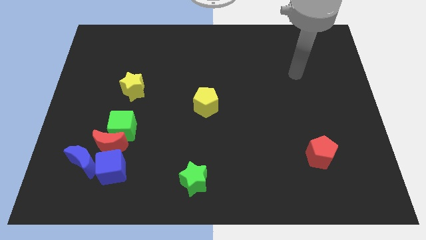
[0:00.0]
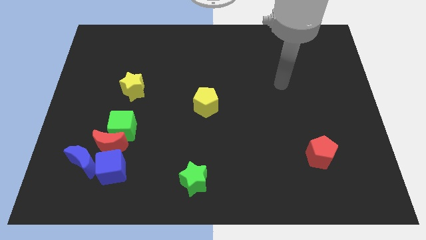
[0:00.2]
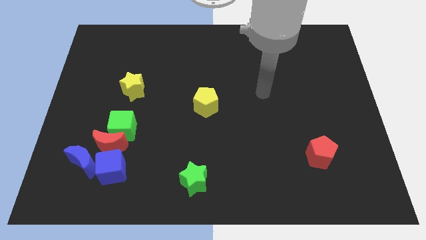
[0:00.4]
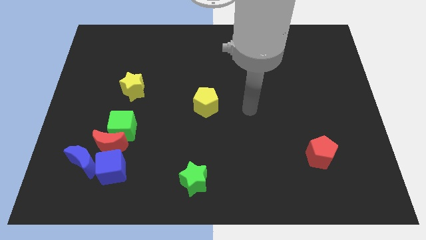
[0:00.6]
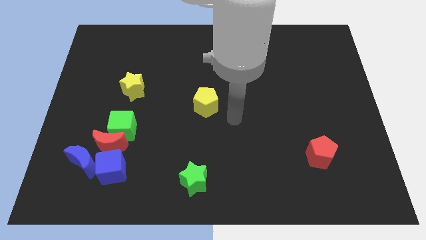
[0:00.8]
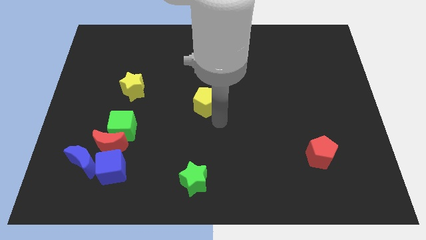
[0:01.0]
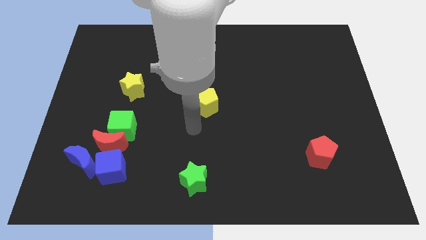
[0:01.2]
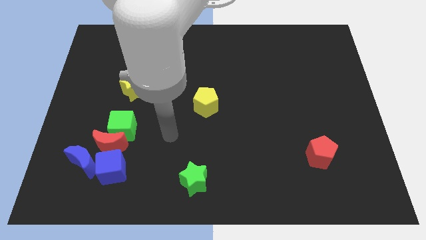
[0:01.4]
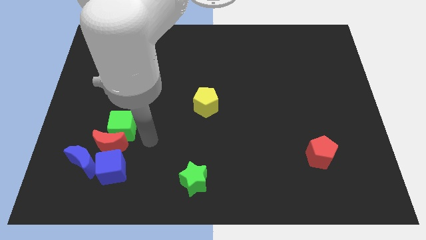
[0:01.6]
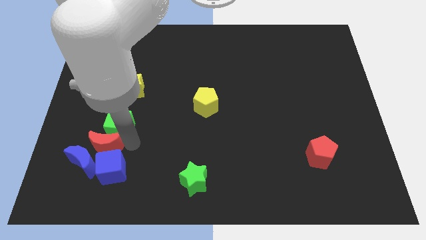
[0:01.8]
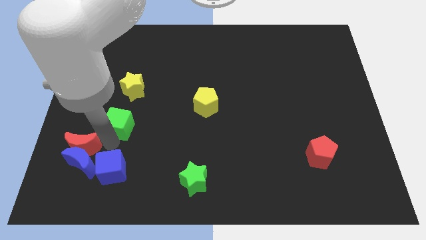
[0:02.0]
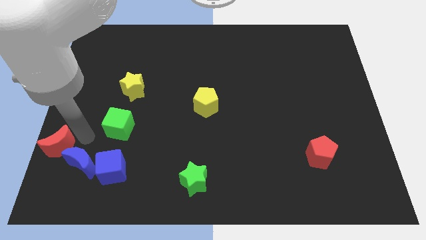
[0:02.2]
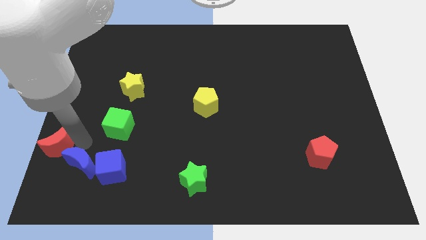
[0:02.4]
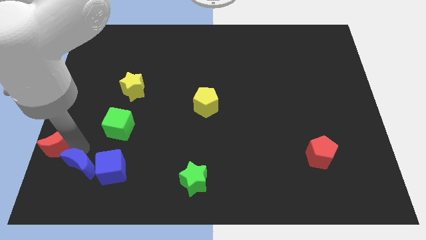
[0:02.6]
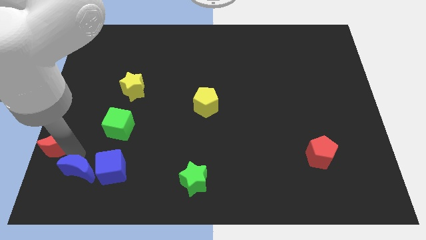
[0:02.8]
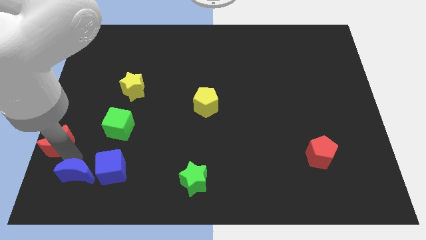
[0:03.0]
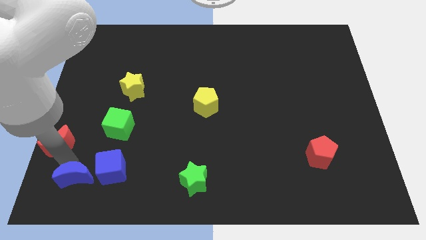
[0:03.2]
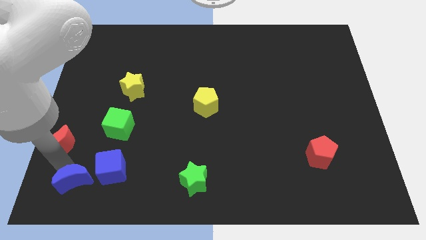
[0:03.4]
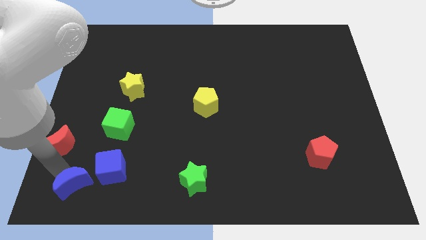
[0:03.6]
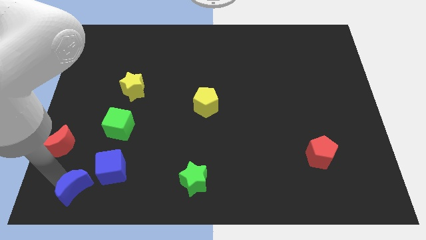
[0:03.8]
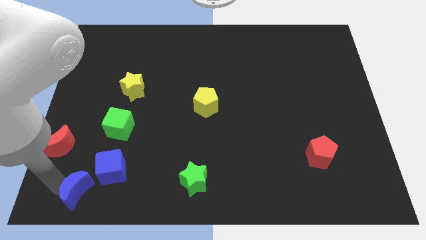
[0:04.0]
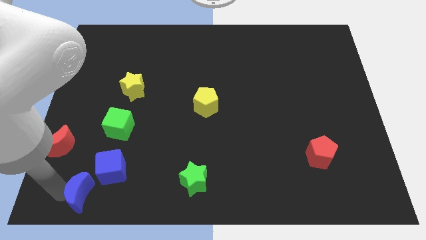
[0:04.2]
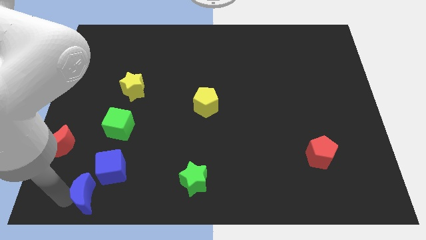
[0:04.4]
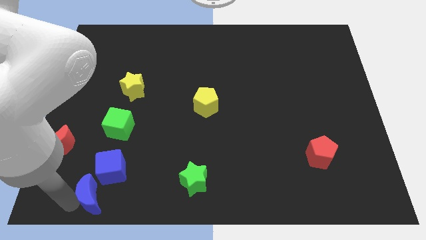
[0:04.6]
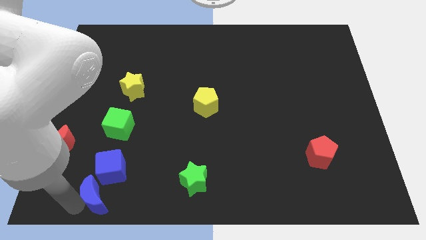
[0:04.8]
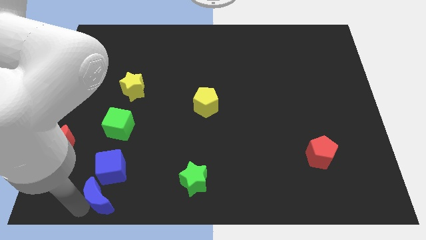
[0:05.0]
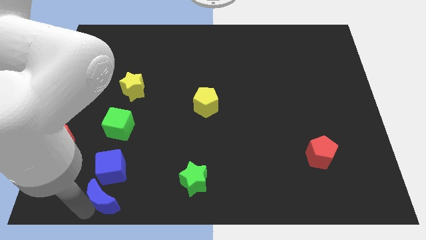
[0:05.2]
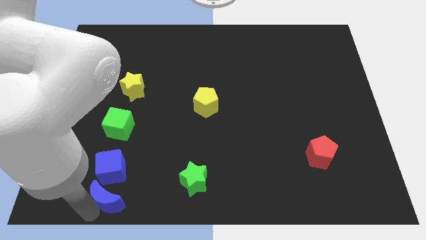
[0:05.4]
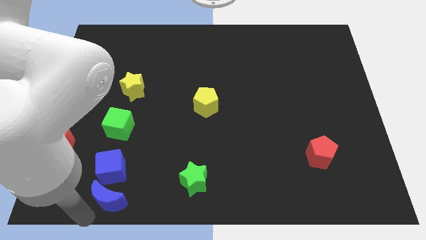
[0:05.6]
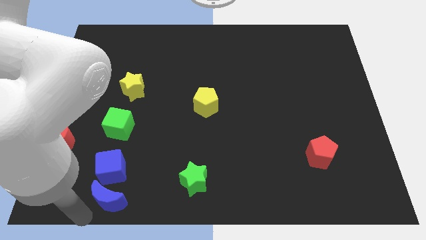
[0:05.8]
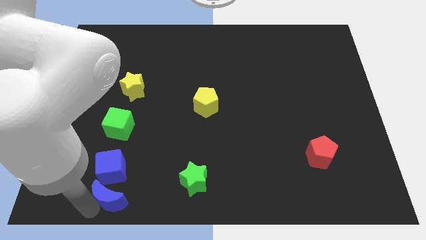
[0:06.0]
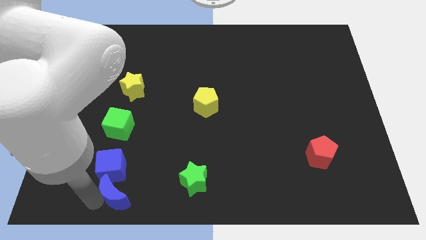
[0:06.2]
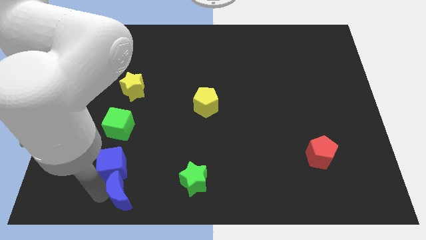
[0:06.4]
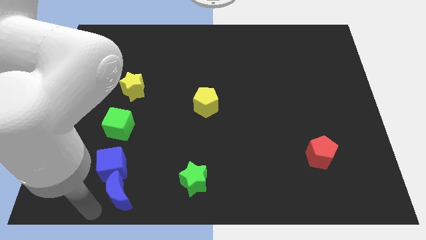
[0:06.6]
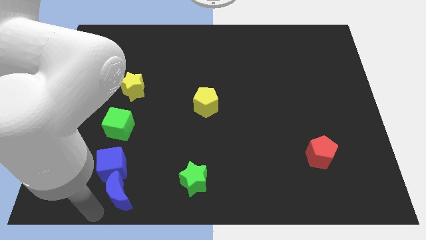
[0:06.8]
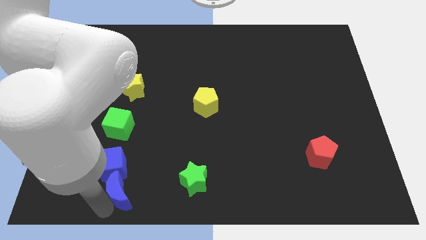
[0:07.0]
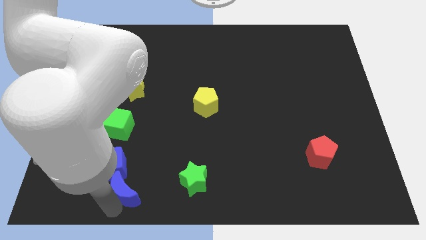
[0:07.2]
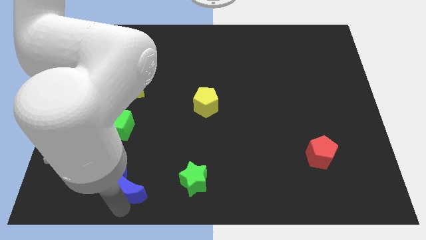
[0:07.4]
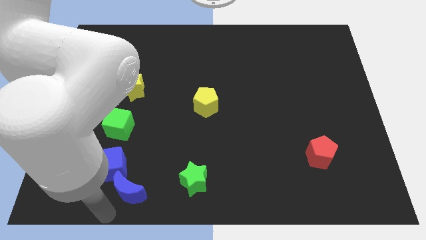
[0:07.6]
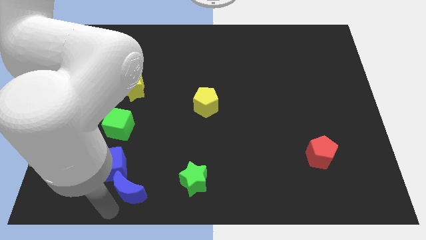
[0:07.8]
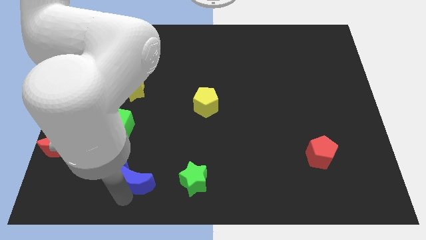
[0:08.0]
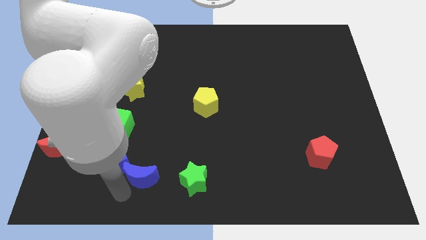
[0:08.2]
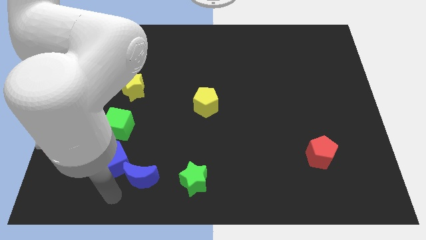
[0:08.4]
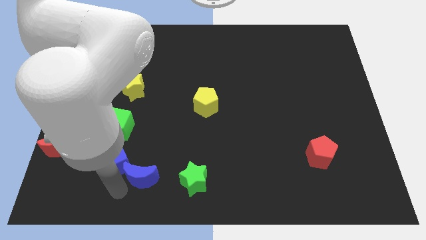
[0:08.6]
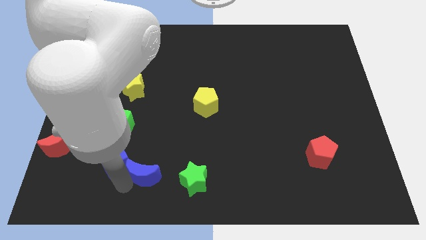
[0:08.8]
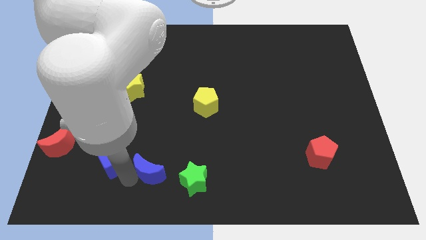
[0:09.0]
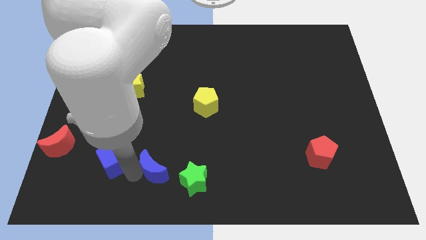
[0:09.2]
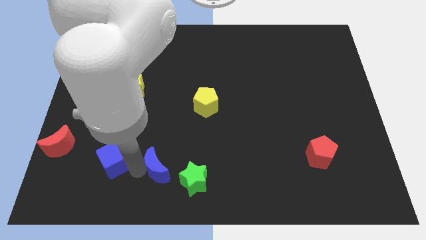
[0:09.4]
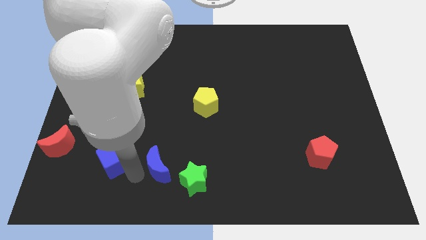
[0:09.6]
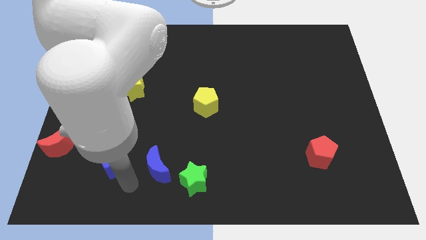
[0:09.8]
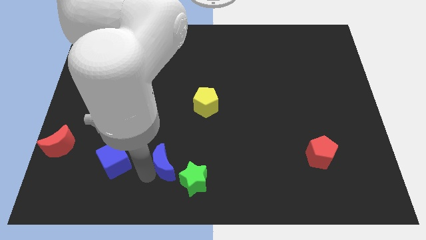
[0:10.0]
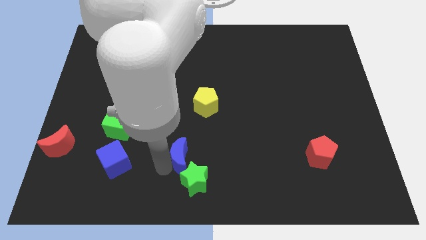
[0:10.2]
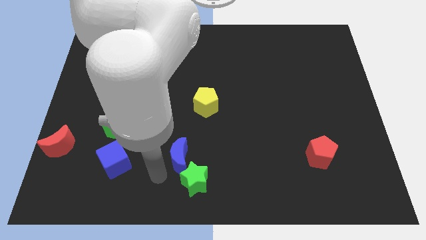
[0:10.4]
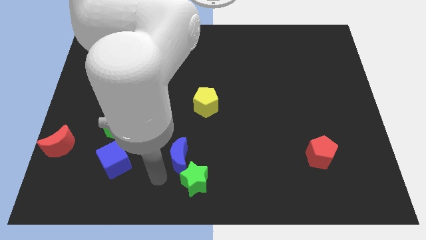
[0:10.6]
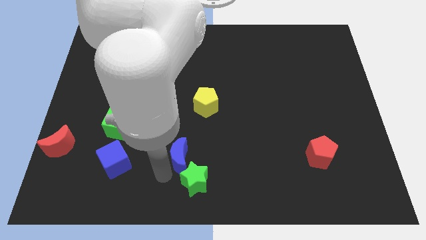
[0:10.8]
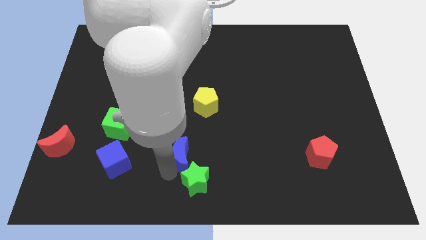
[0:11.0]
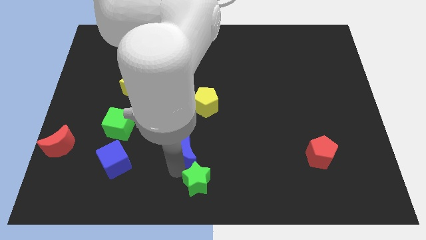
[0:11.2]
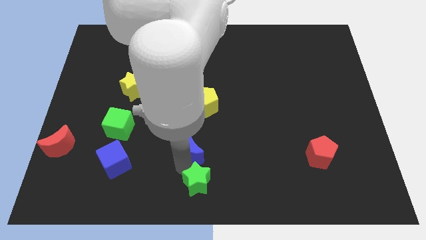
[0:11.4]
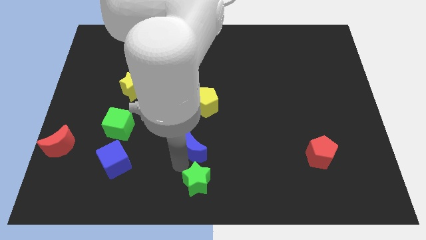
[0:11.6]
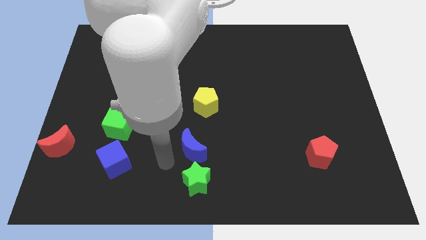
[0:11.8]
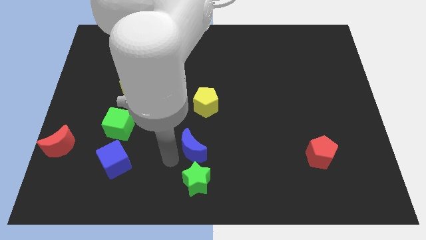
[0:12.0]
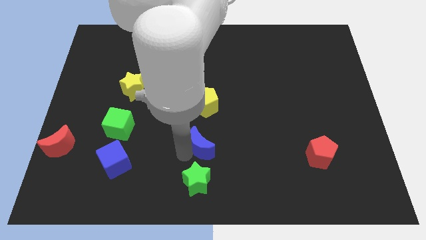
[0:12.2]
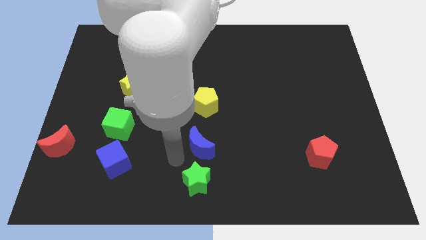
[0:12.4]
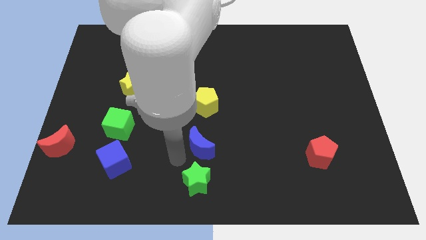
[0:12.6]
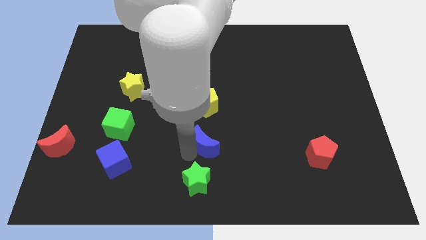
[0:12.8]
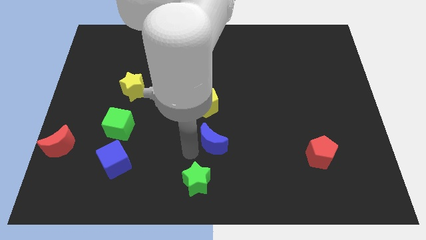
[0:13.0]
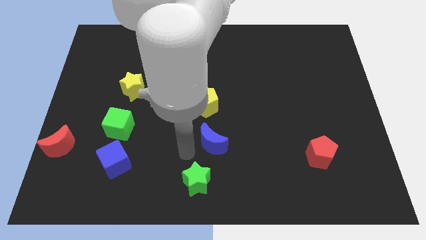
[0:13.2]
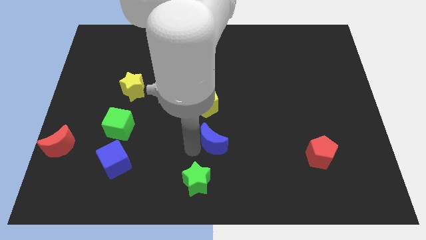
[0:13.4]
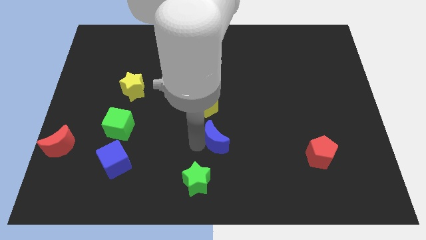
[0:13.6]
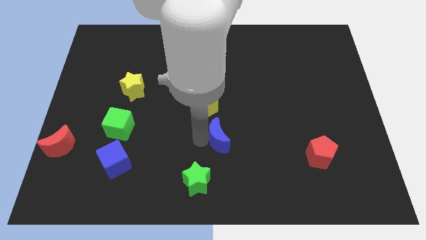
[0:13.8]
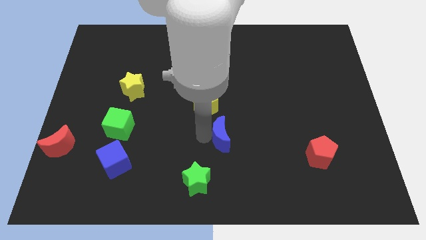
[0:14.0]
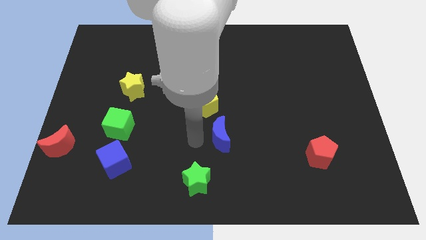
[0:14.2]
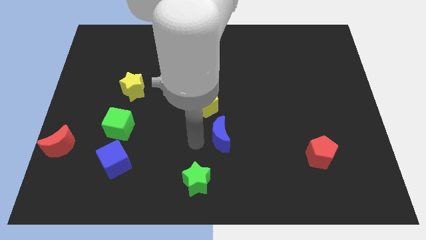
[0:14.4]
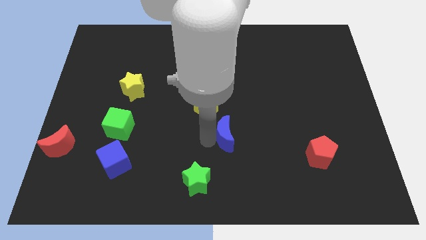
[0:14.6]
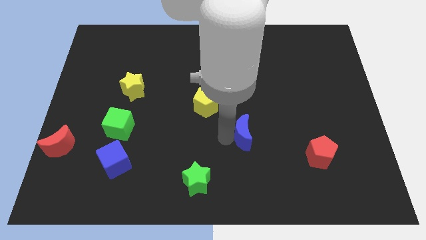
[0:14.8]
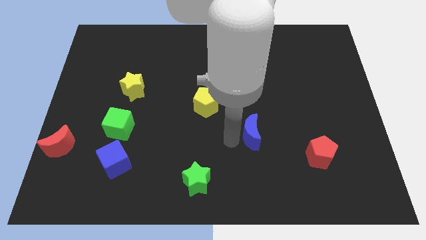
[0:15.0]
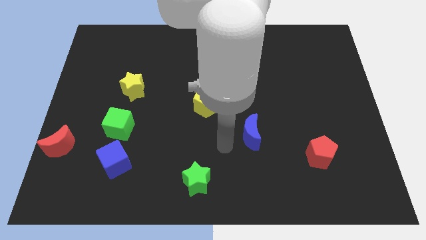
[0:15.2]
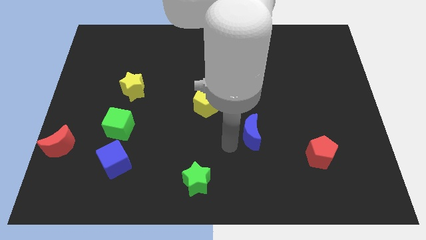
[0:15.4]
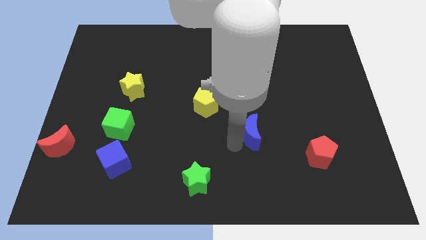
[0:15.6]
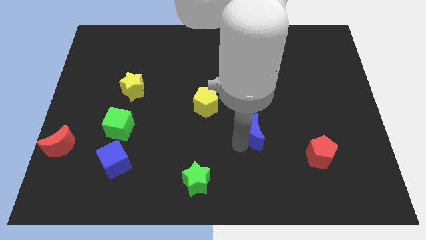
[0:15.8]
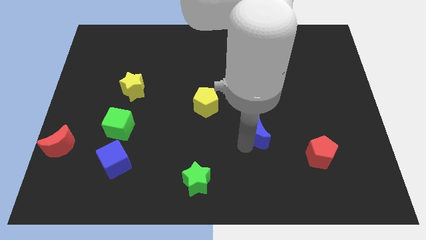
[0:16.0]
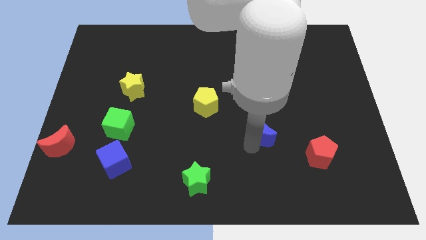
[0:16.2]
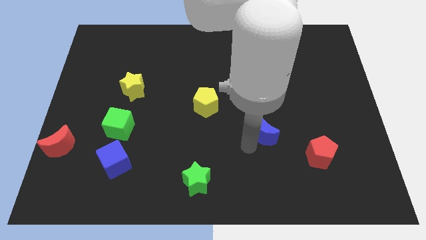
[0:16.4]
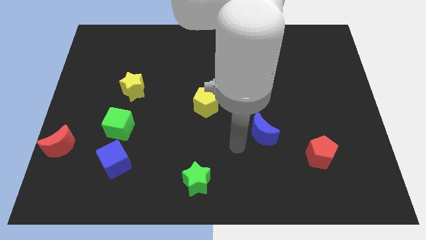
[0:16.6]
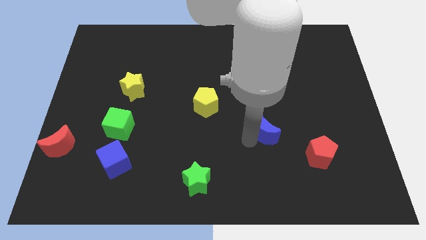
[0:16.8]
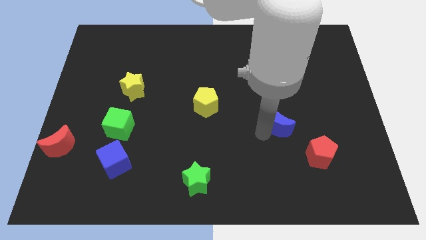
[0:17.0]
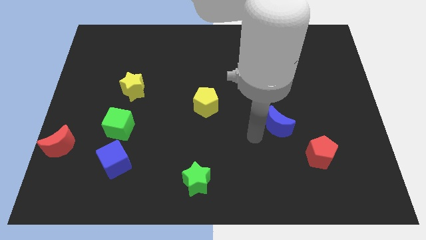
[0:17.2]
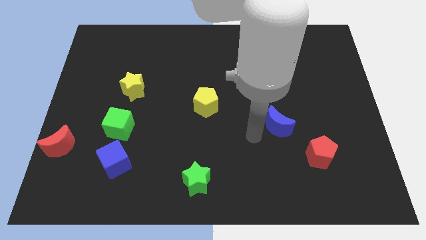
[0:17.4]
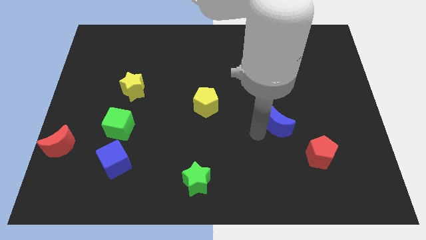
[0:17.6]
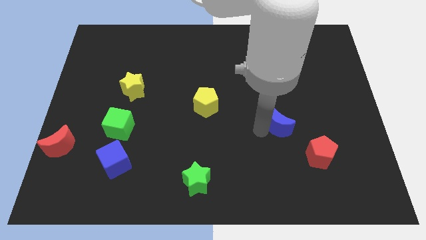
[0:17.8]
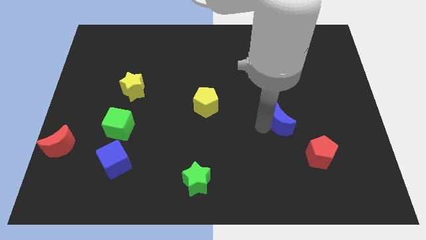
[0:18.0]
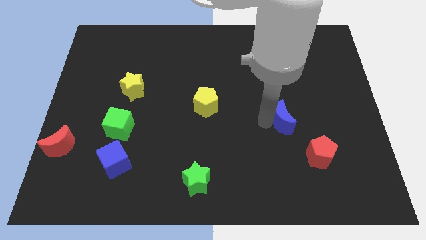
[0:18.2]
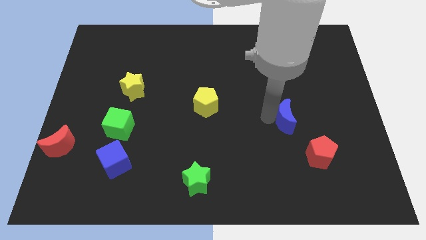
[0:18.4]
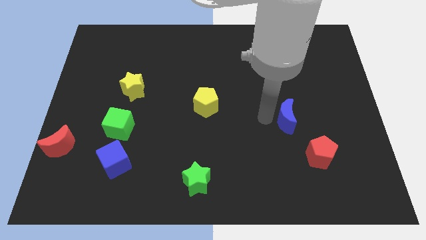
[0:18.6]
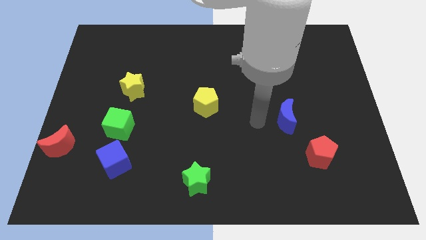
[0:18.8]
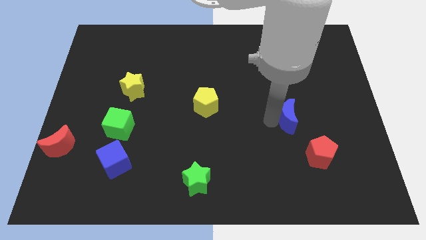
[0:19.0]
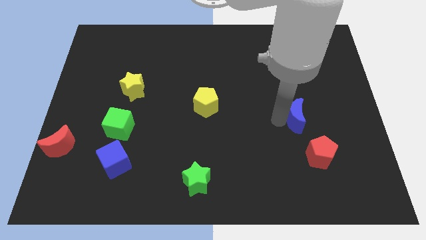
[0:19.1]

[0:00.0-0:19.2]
move the blue moon to the top of the red pentagon
